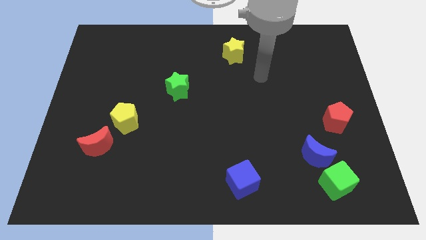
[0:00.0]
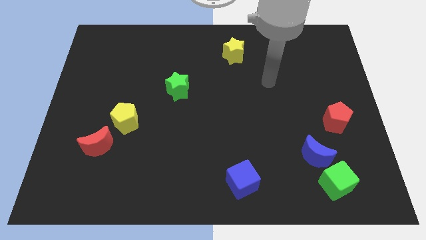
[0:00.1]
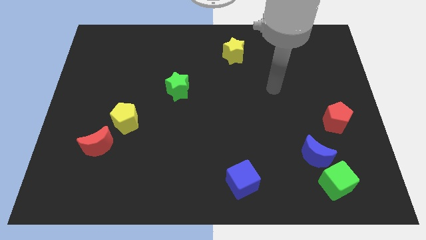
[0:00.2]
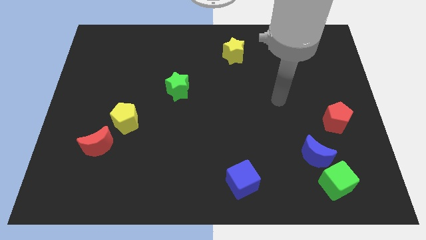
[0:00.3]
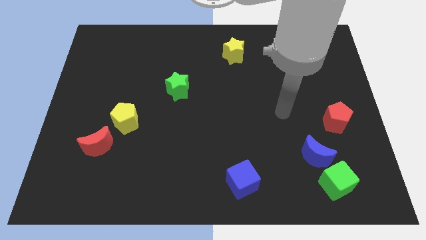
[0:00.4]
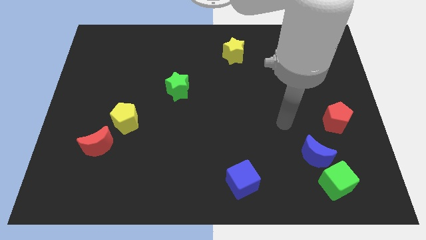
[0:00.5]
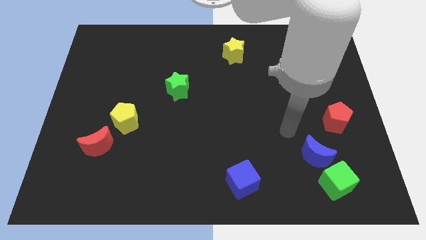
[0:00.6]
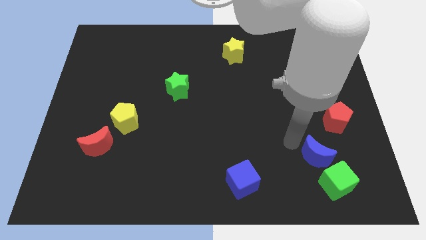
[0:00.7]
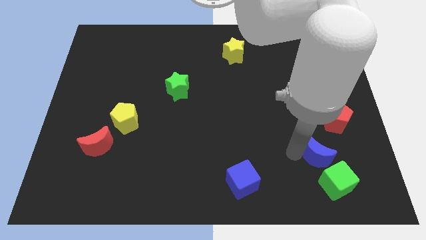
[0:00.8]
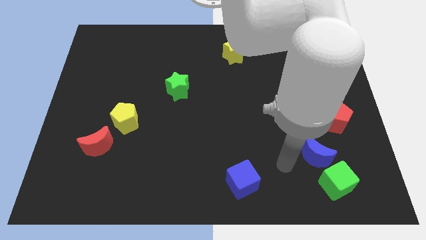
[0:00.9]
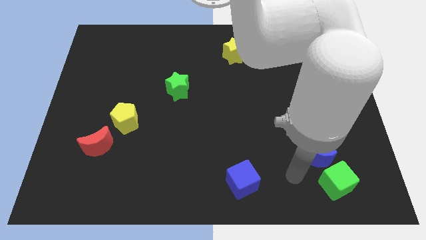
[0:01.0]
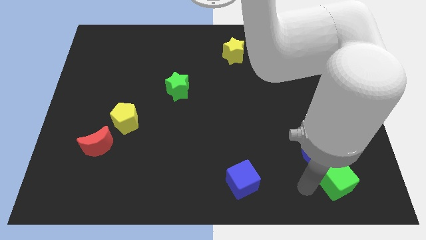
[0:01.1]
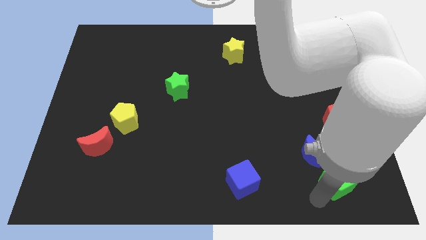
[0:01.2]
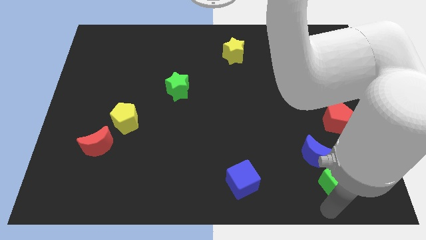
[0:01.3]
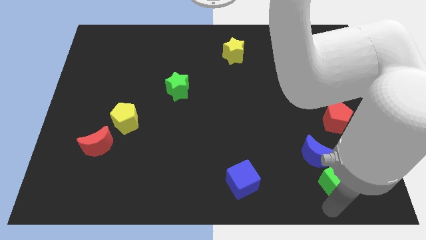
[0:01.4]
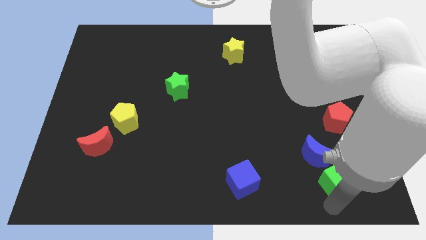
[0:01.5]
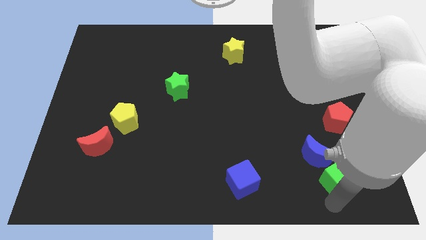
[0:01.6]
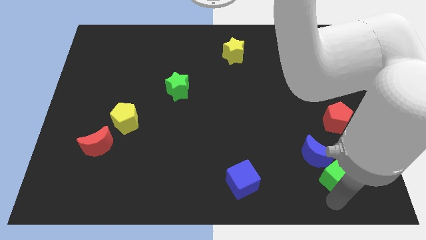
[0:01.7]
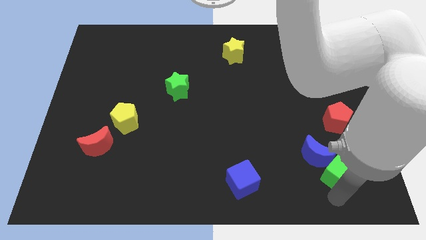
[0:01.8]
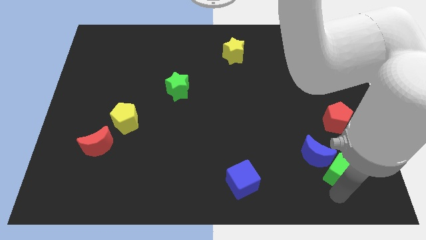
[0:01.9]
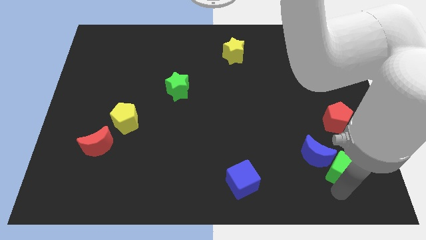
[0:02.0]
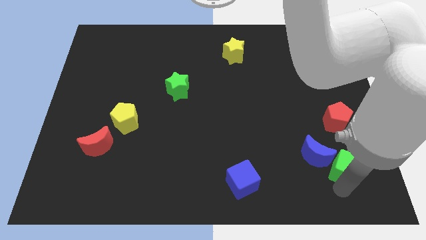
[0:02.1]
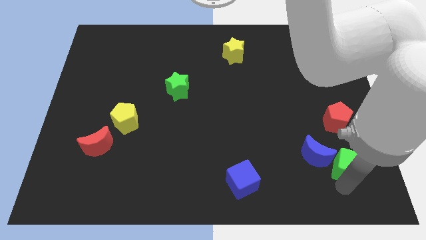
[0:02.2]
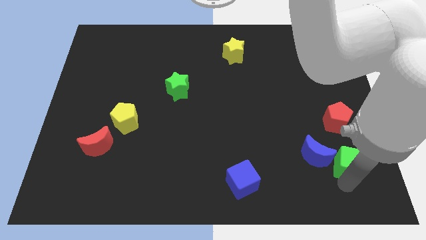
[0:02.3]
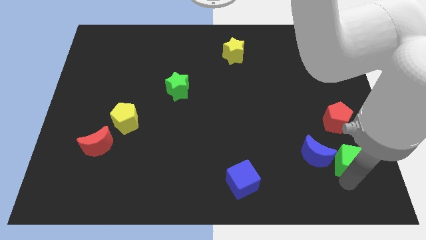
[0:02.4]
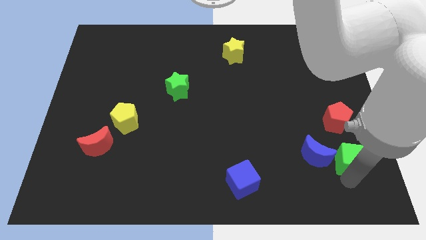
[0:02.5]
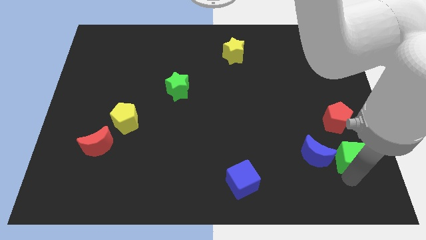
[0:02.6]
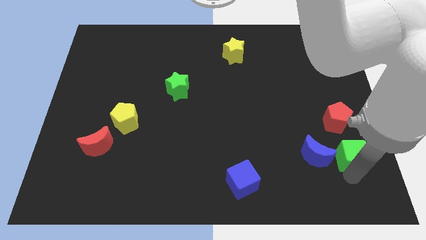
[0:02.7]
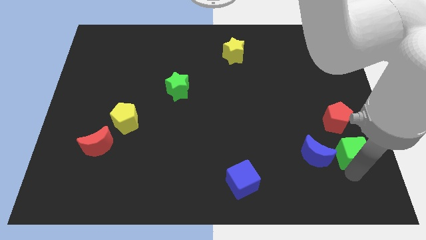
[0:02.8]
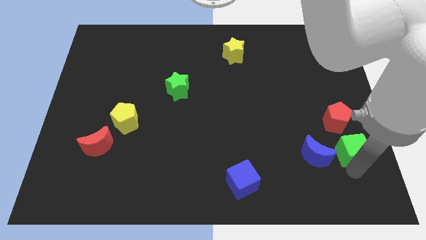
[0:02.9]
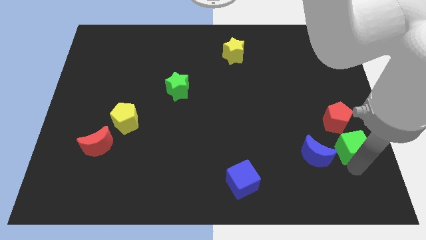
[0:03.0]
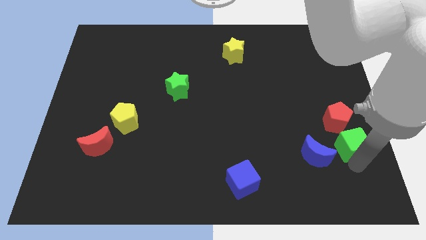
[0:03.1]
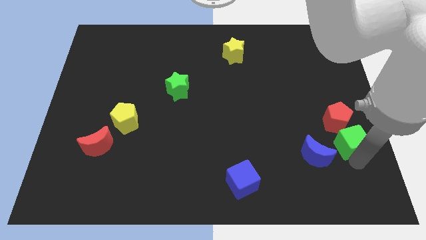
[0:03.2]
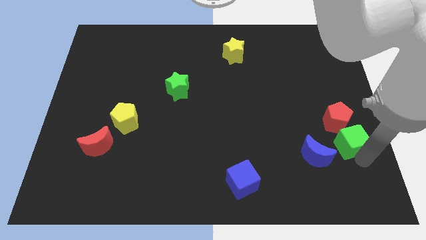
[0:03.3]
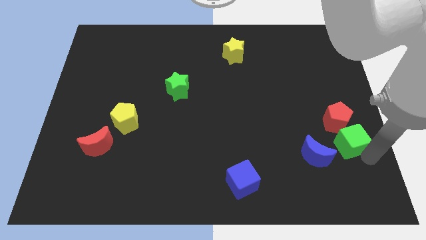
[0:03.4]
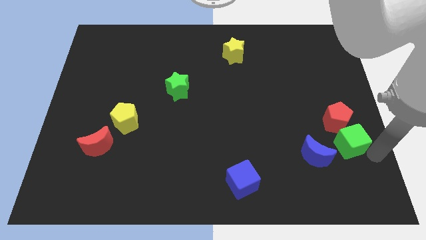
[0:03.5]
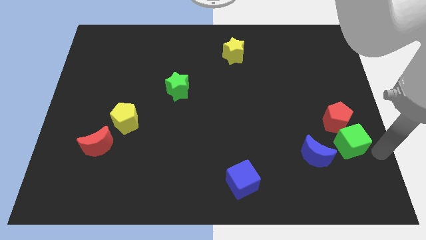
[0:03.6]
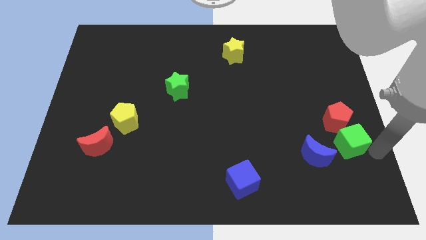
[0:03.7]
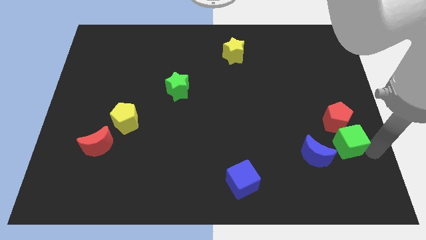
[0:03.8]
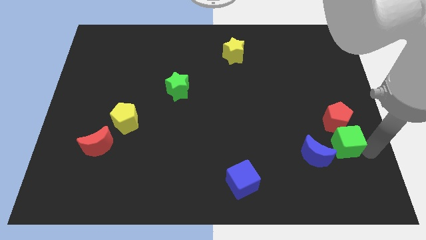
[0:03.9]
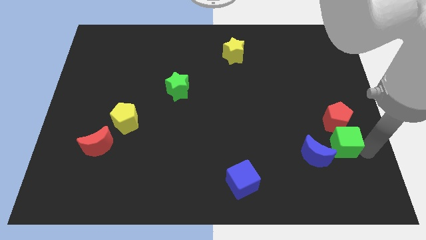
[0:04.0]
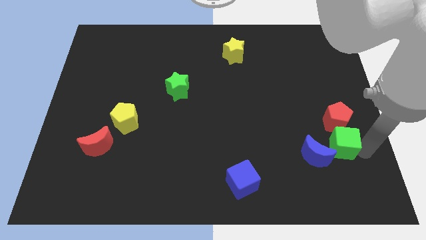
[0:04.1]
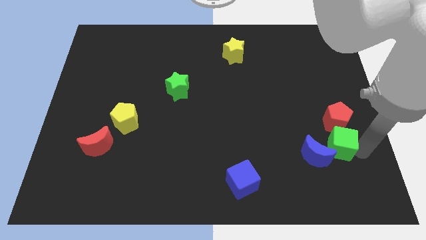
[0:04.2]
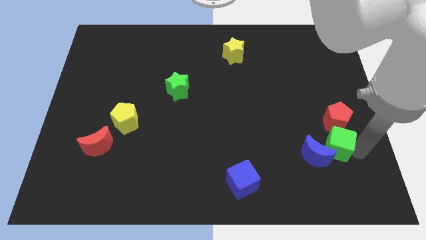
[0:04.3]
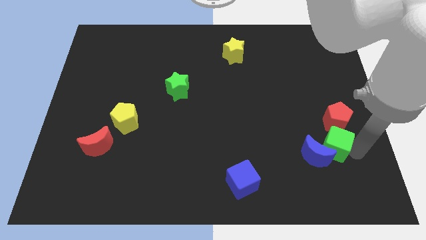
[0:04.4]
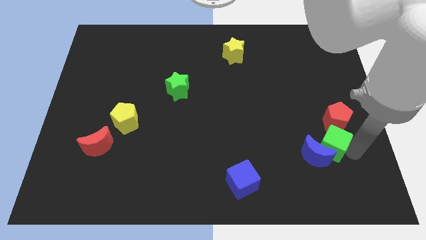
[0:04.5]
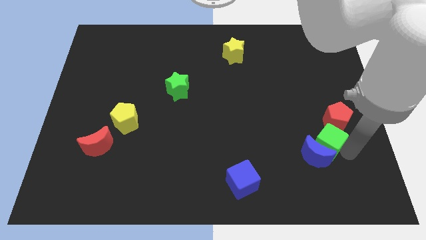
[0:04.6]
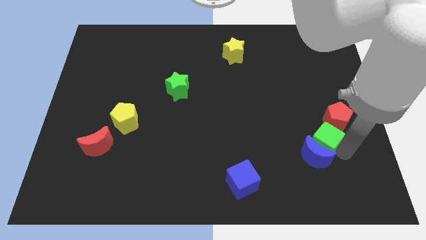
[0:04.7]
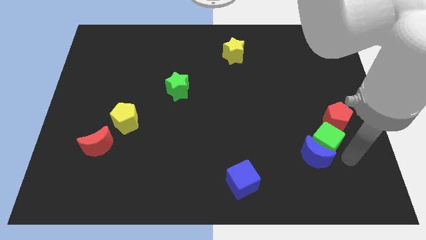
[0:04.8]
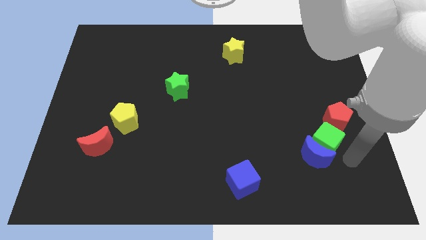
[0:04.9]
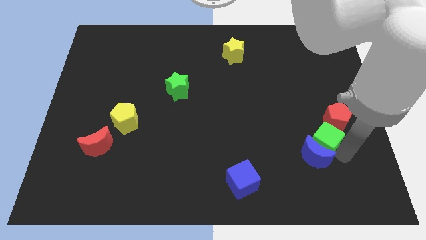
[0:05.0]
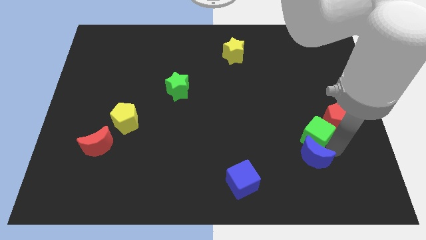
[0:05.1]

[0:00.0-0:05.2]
move the green cube to the left of the red pentagon

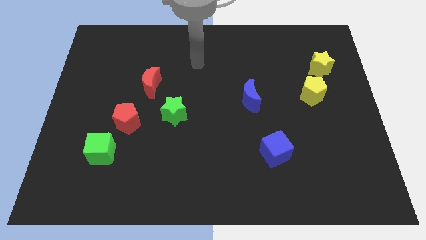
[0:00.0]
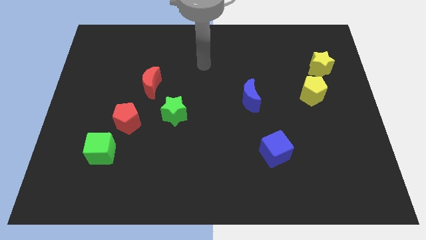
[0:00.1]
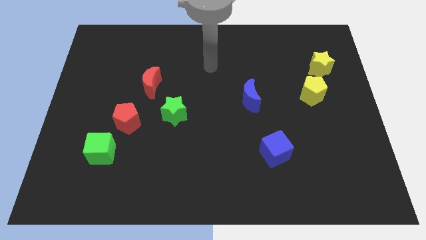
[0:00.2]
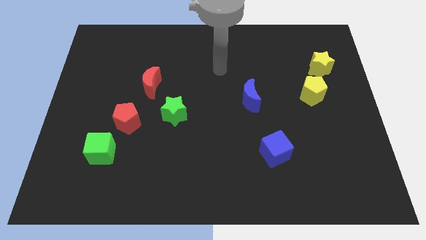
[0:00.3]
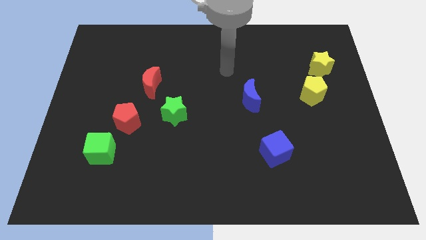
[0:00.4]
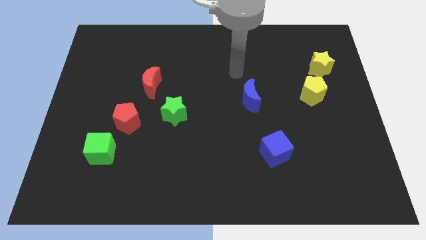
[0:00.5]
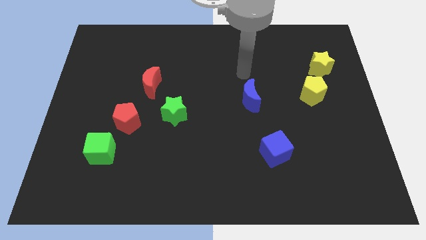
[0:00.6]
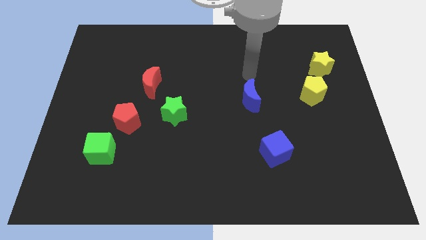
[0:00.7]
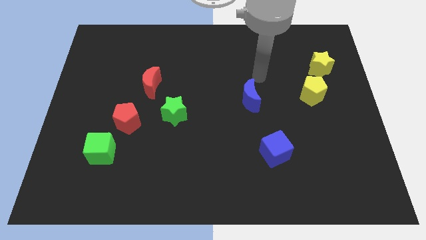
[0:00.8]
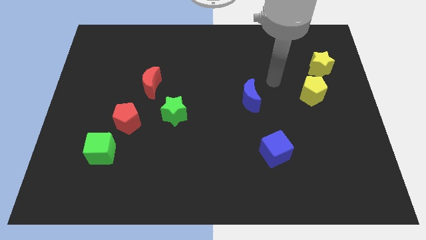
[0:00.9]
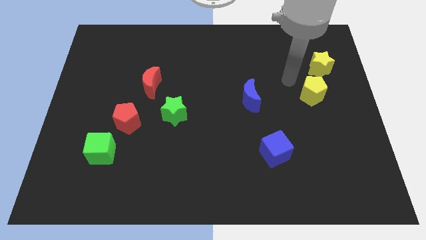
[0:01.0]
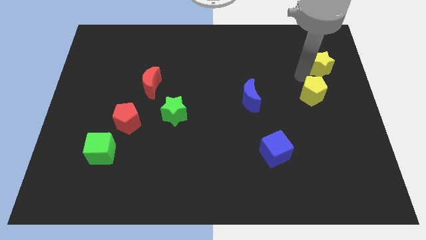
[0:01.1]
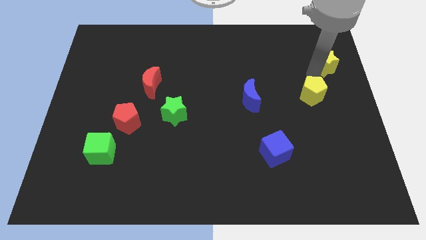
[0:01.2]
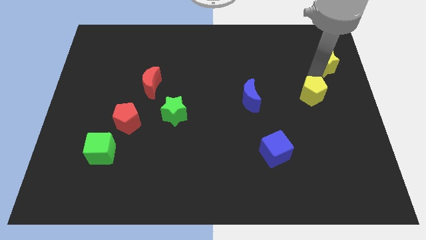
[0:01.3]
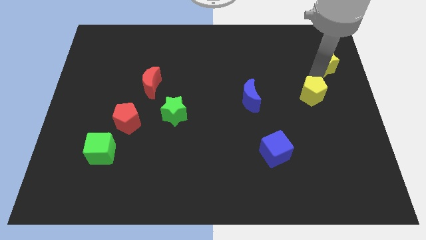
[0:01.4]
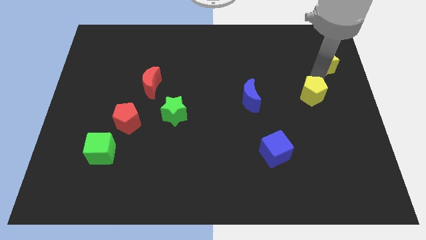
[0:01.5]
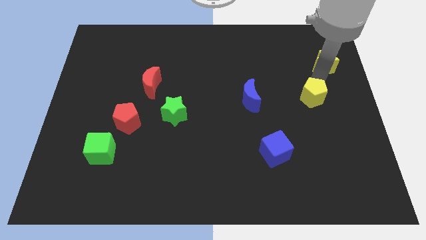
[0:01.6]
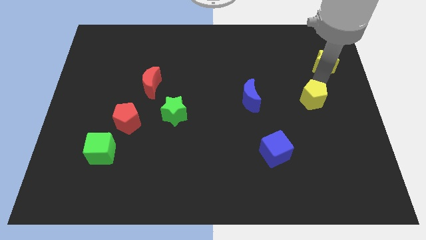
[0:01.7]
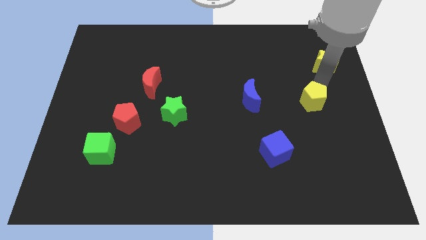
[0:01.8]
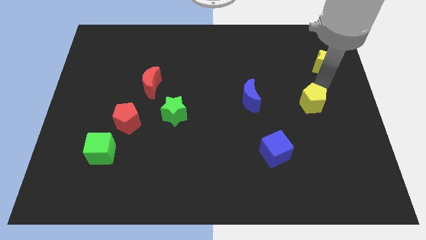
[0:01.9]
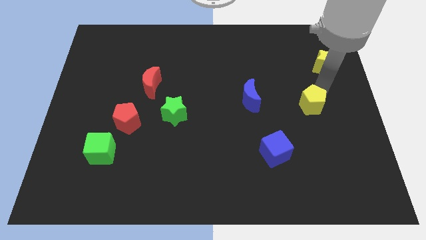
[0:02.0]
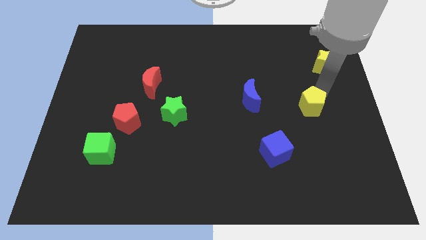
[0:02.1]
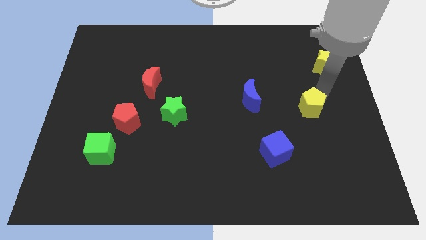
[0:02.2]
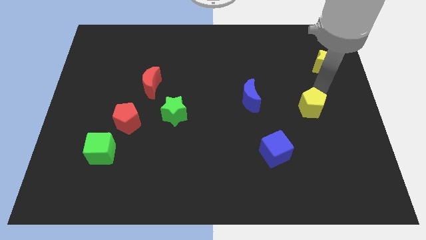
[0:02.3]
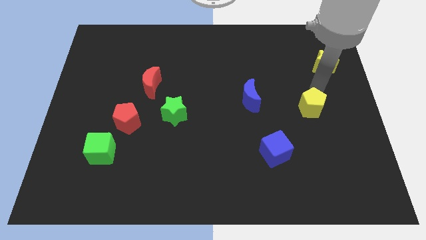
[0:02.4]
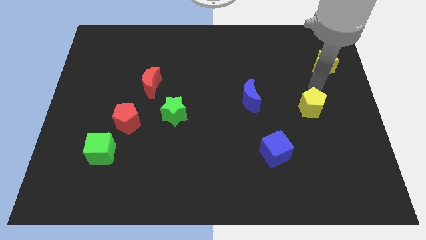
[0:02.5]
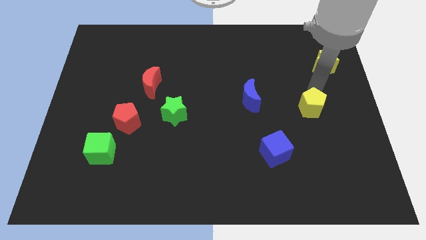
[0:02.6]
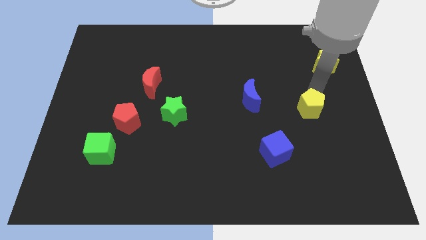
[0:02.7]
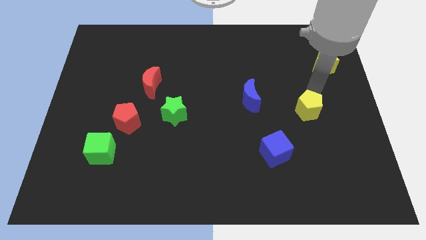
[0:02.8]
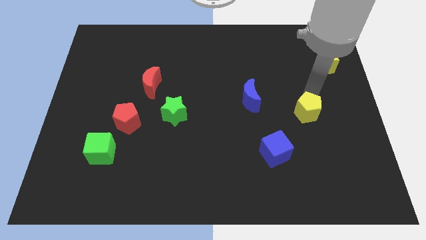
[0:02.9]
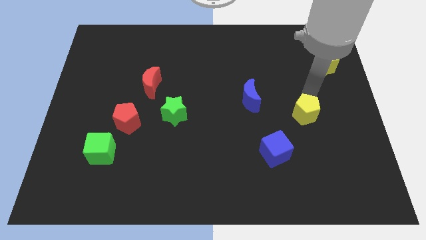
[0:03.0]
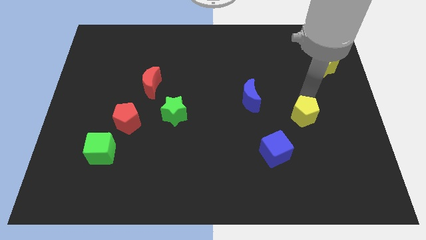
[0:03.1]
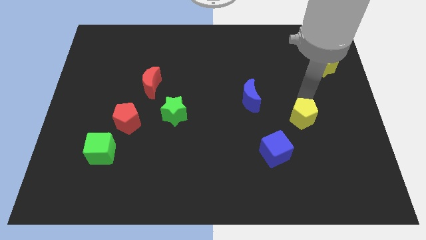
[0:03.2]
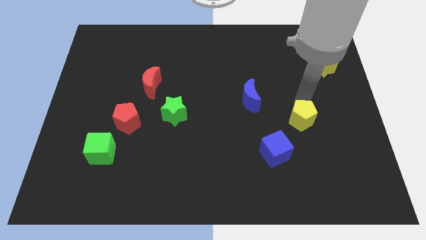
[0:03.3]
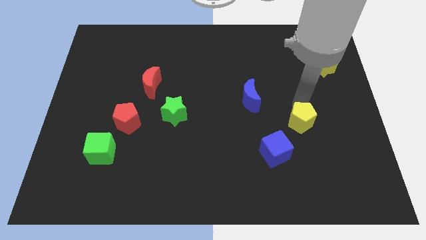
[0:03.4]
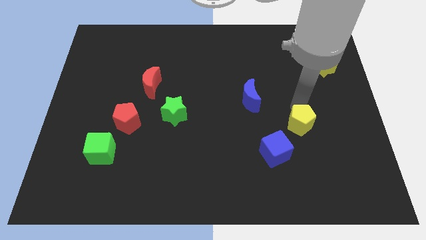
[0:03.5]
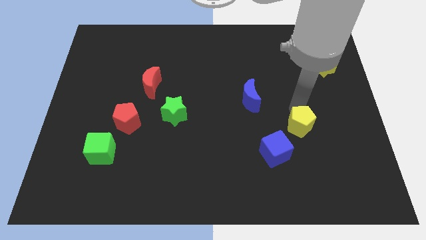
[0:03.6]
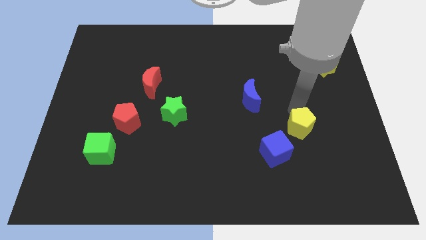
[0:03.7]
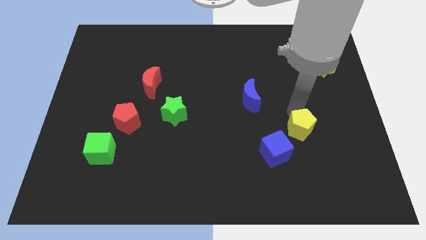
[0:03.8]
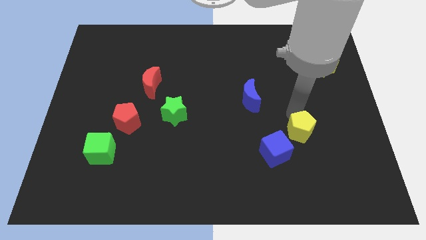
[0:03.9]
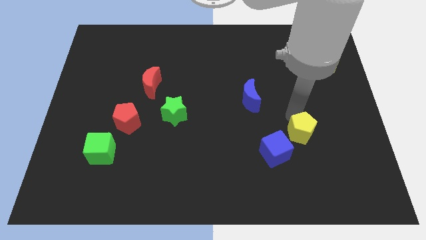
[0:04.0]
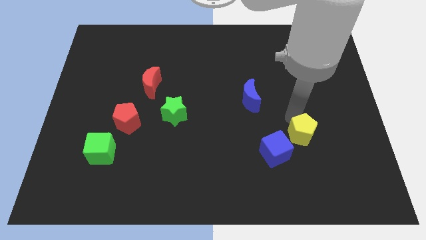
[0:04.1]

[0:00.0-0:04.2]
slide the yellow pentagon to the right of the blue cube
